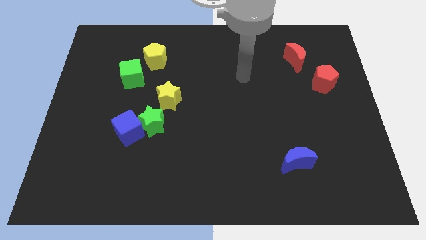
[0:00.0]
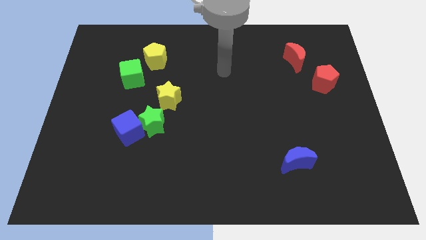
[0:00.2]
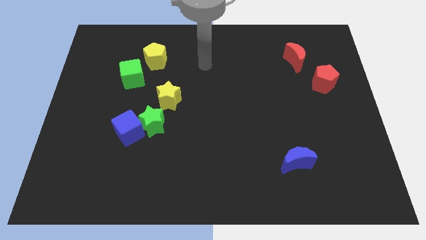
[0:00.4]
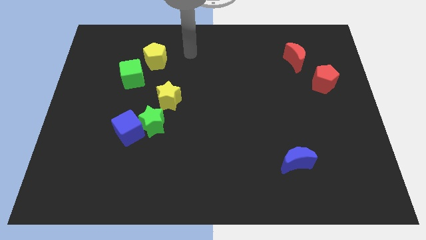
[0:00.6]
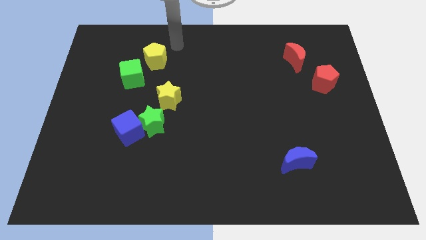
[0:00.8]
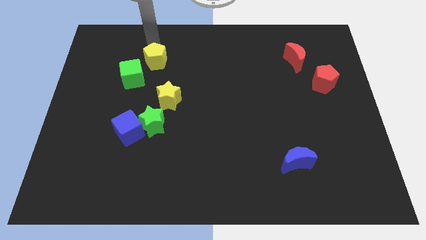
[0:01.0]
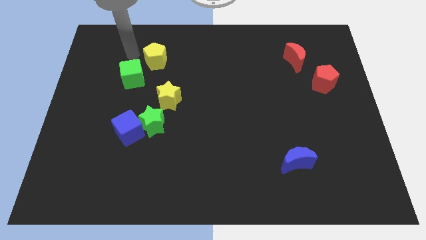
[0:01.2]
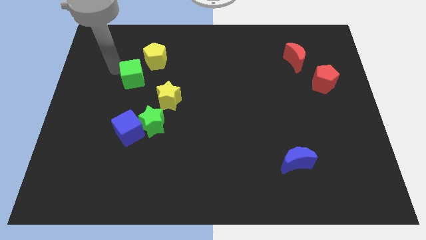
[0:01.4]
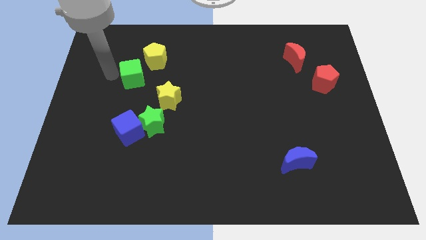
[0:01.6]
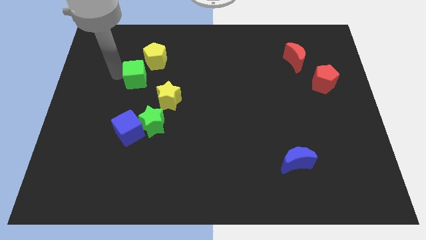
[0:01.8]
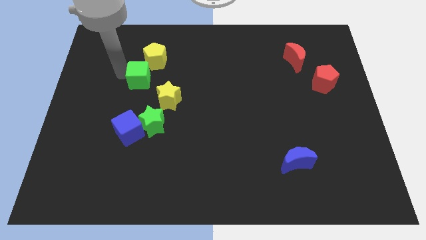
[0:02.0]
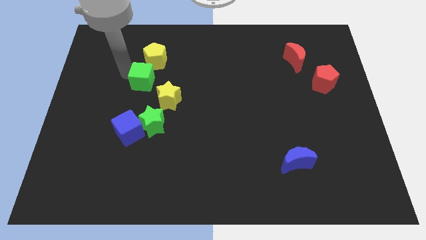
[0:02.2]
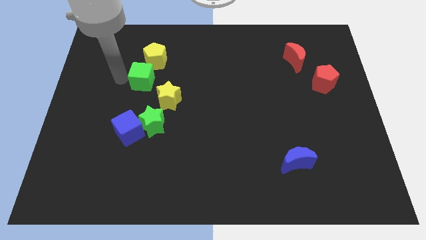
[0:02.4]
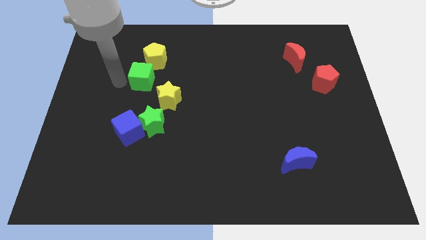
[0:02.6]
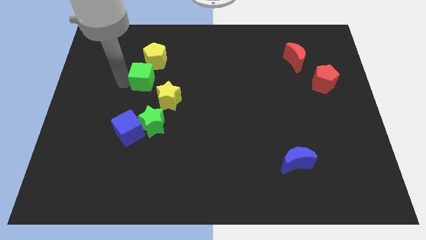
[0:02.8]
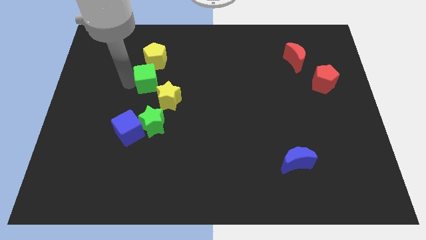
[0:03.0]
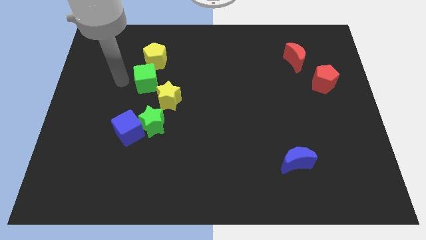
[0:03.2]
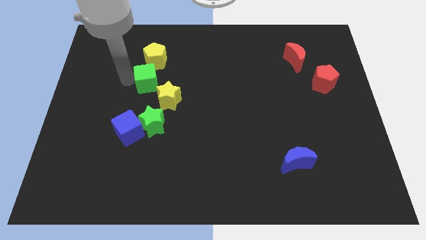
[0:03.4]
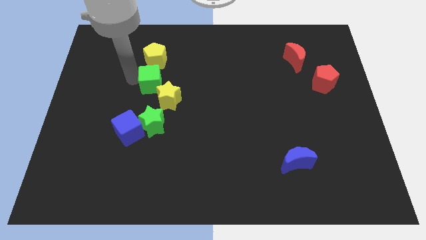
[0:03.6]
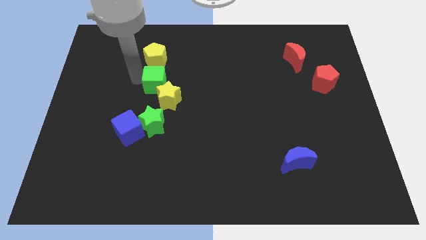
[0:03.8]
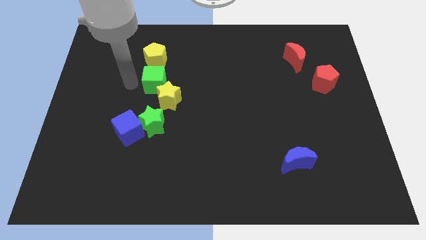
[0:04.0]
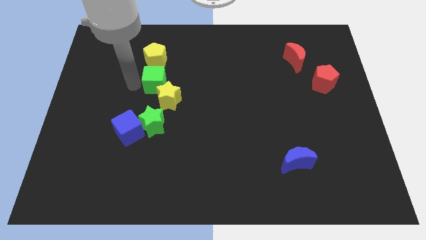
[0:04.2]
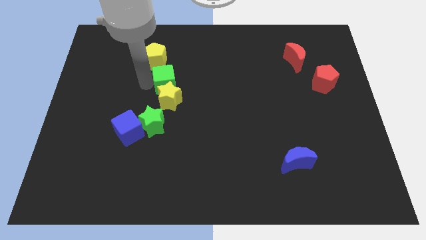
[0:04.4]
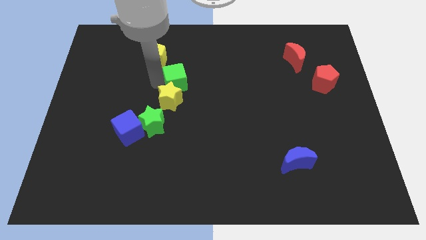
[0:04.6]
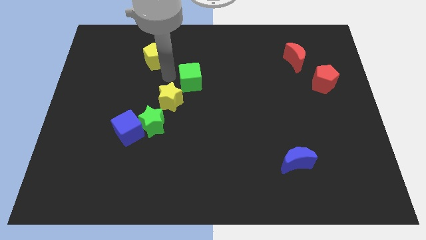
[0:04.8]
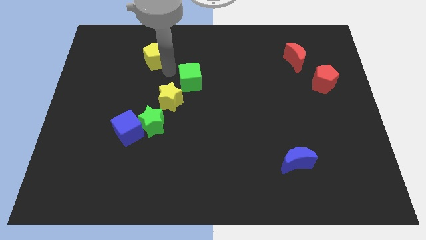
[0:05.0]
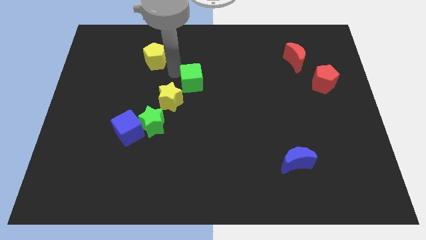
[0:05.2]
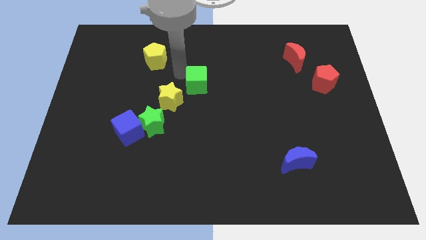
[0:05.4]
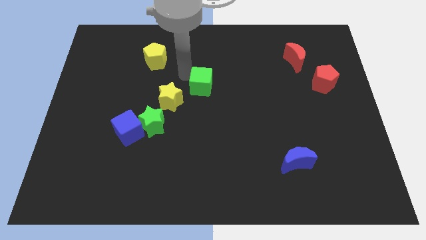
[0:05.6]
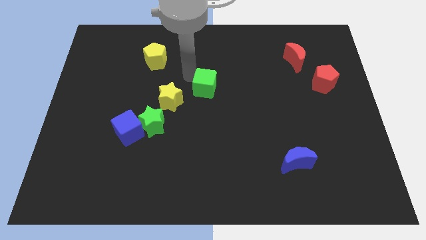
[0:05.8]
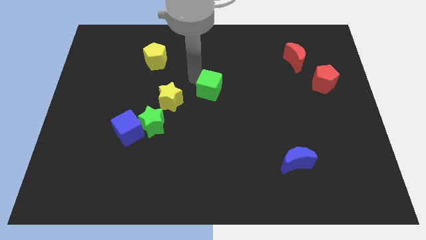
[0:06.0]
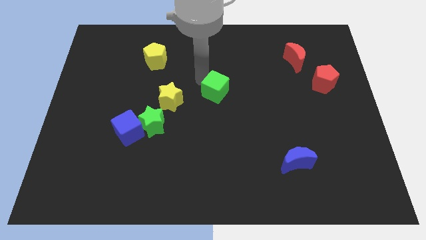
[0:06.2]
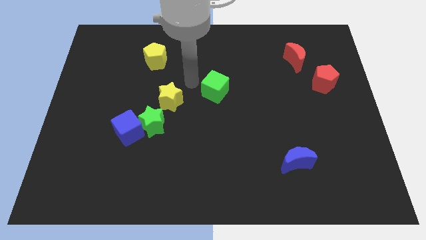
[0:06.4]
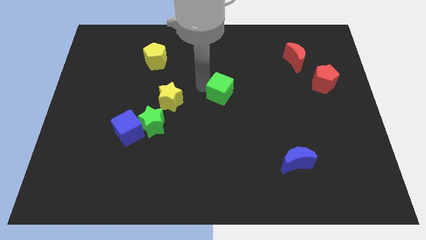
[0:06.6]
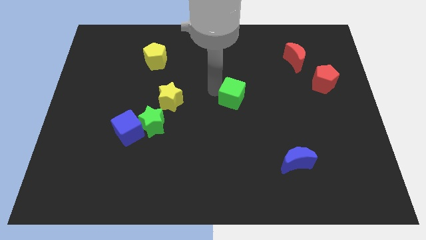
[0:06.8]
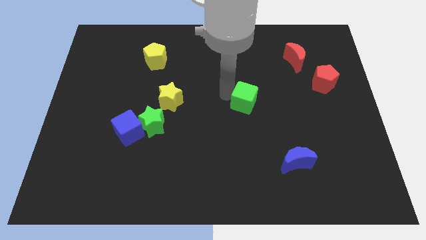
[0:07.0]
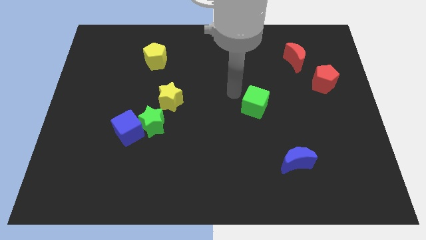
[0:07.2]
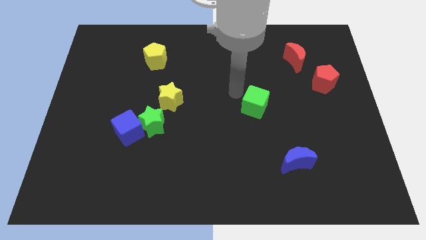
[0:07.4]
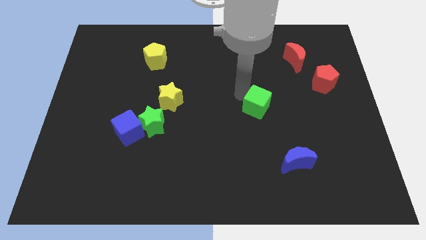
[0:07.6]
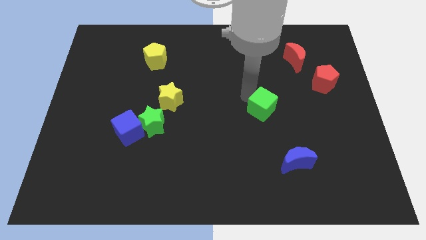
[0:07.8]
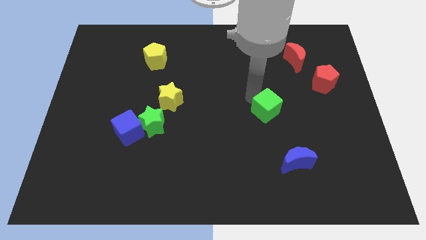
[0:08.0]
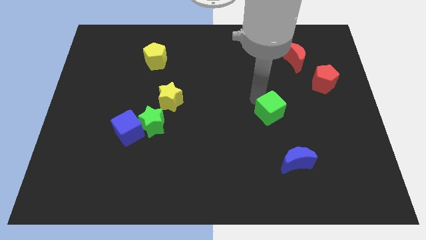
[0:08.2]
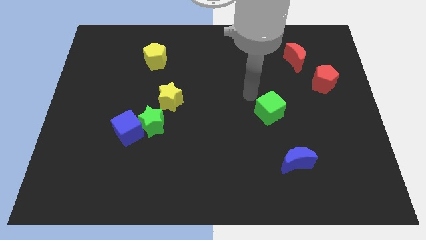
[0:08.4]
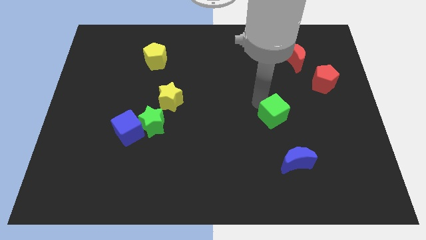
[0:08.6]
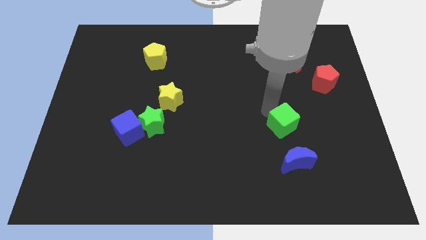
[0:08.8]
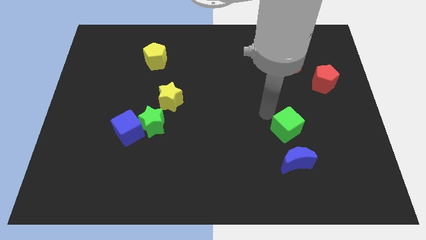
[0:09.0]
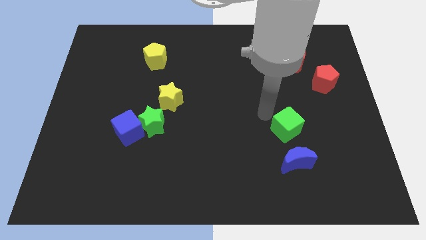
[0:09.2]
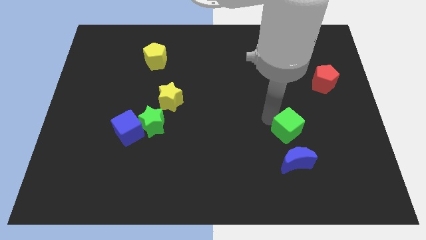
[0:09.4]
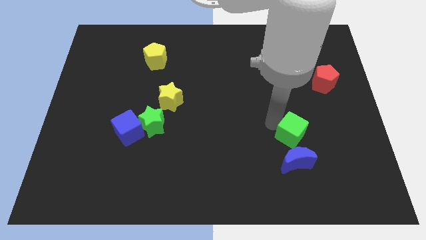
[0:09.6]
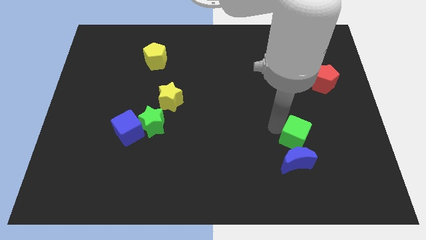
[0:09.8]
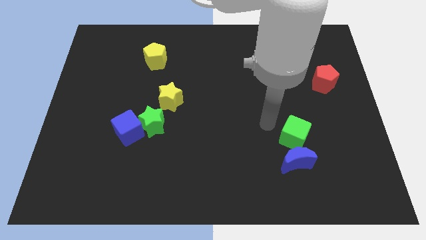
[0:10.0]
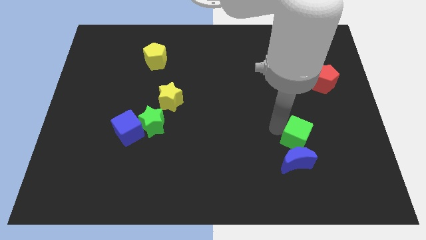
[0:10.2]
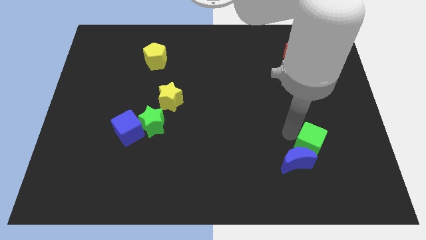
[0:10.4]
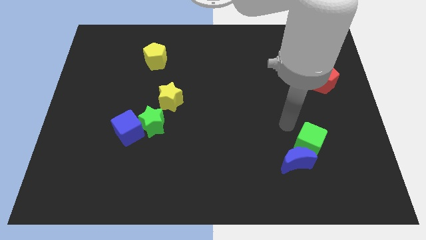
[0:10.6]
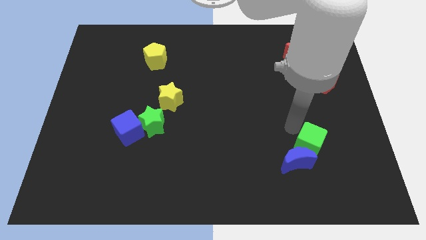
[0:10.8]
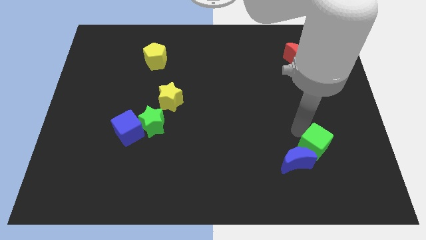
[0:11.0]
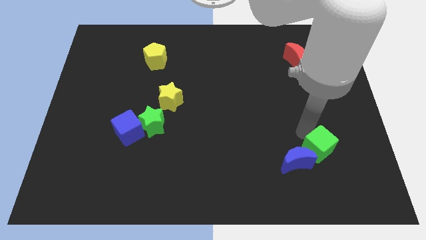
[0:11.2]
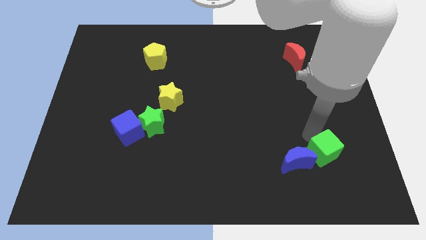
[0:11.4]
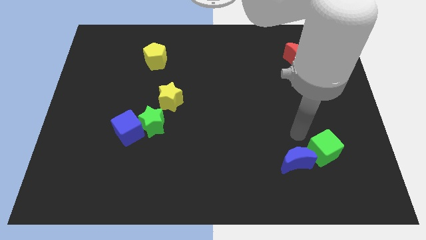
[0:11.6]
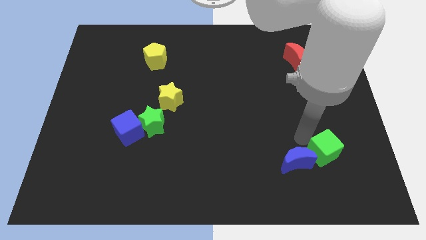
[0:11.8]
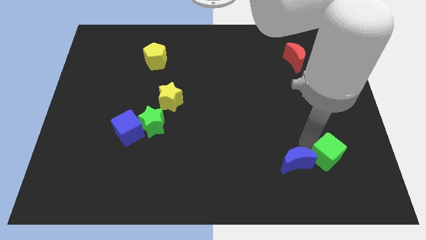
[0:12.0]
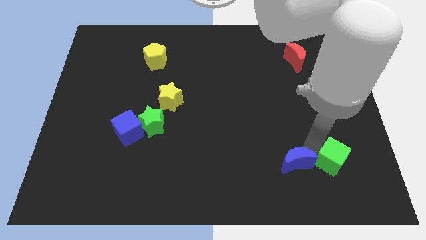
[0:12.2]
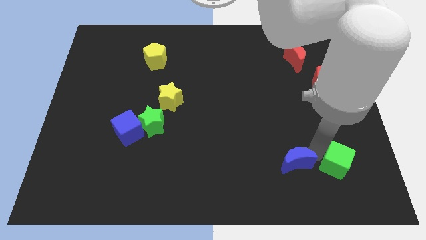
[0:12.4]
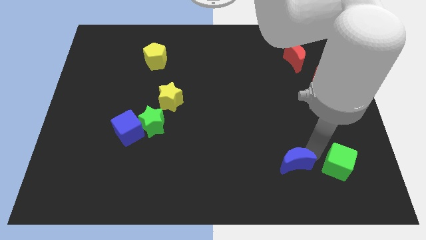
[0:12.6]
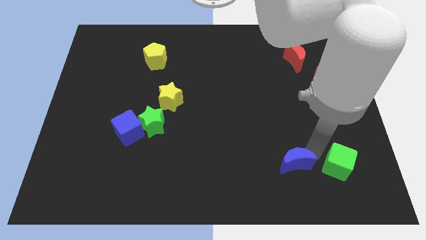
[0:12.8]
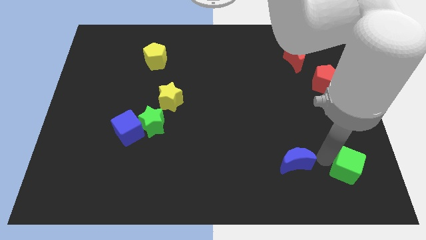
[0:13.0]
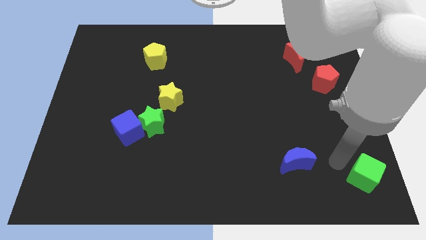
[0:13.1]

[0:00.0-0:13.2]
move the green cube to the bottom right
